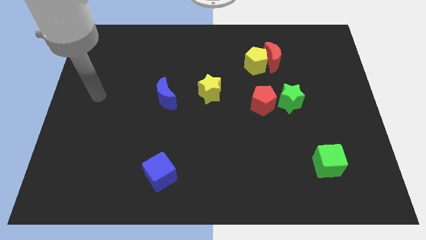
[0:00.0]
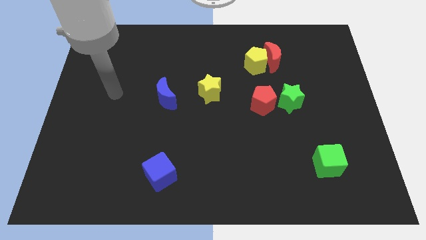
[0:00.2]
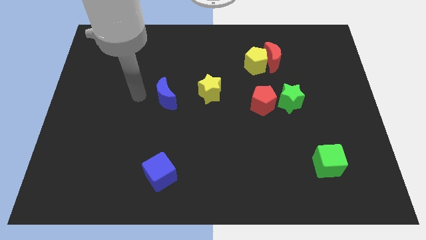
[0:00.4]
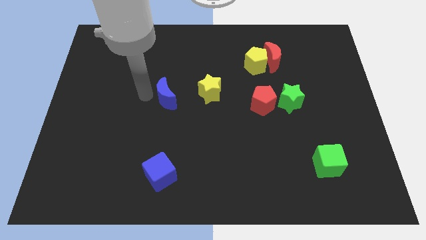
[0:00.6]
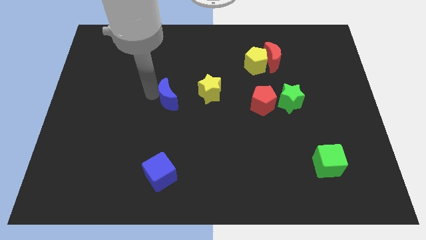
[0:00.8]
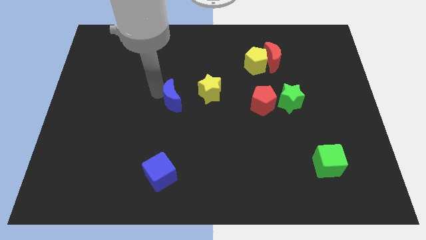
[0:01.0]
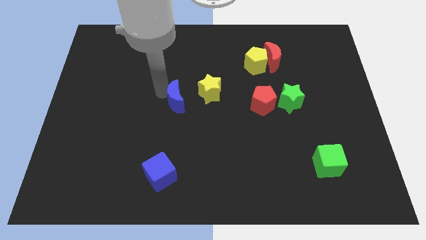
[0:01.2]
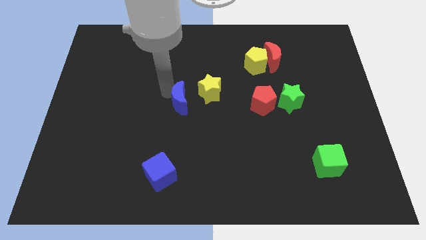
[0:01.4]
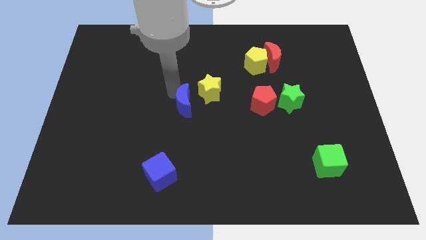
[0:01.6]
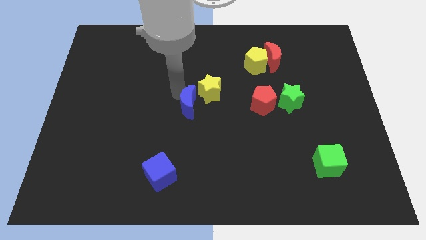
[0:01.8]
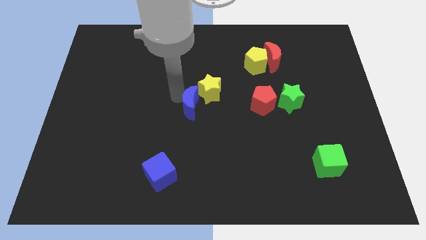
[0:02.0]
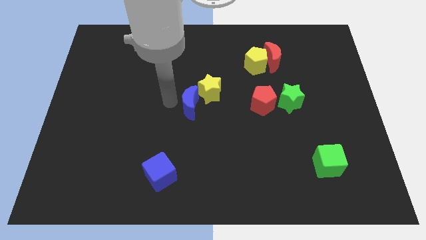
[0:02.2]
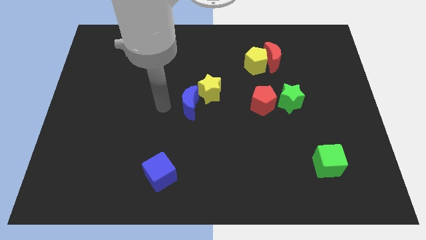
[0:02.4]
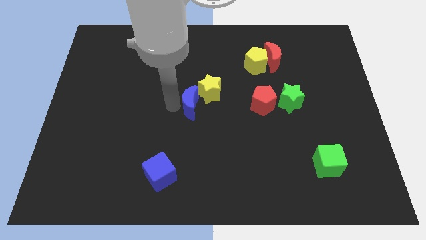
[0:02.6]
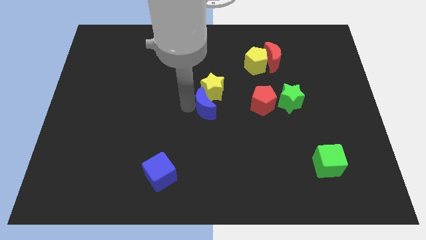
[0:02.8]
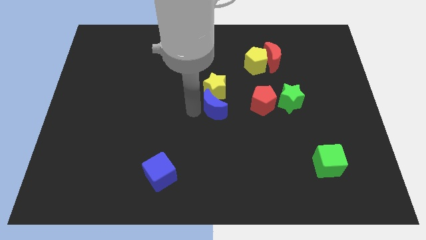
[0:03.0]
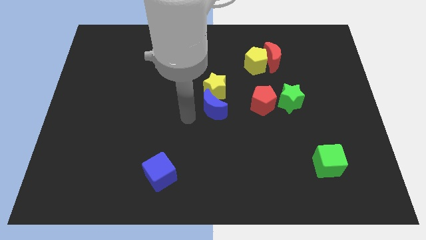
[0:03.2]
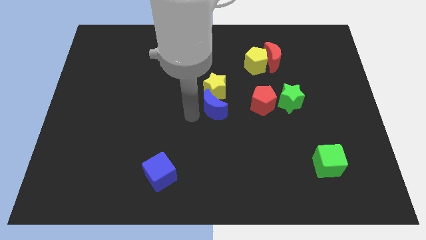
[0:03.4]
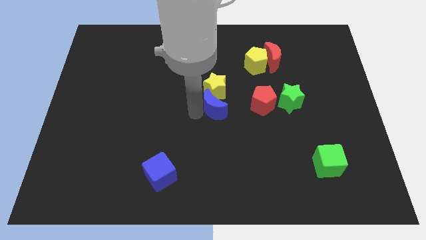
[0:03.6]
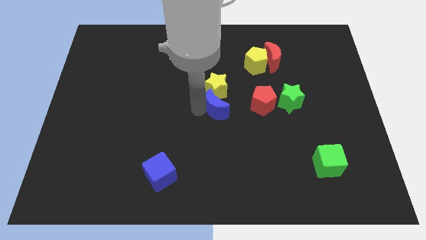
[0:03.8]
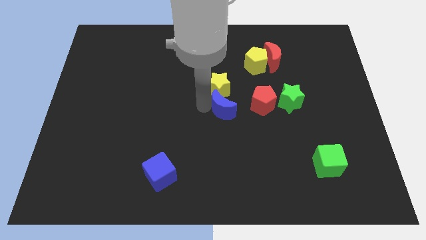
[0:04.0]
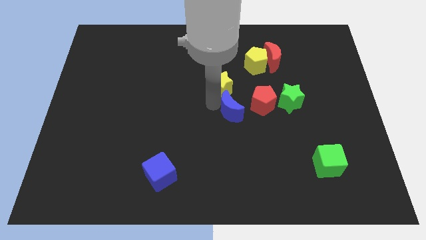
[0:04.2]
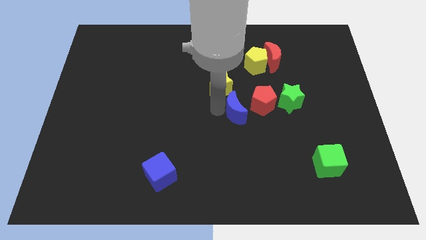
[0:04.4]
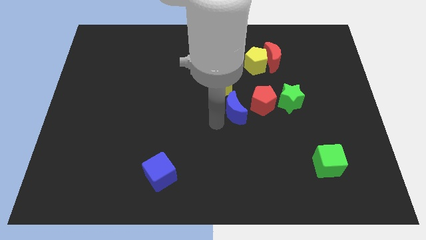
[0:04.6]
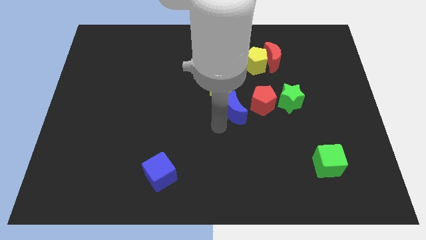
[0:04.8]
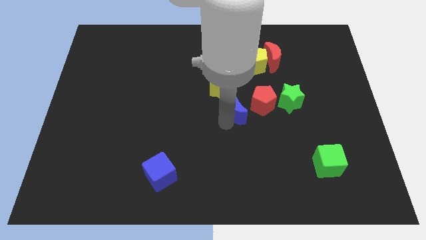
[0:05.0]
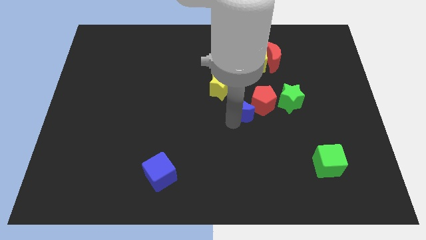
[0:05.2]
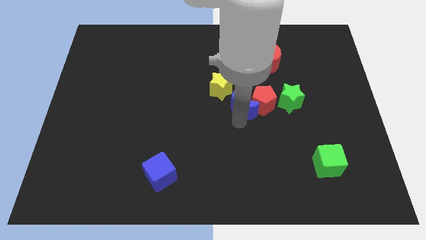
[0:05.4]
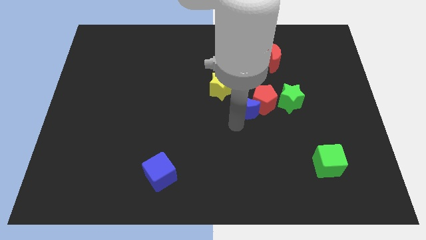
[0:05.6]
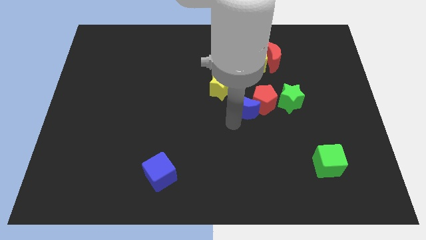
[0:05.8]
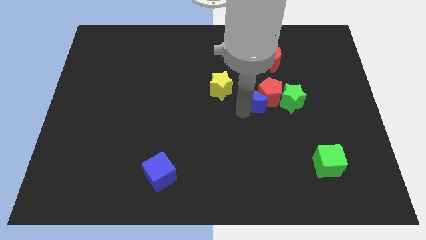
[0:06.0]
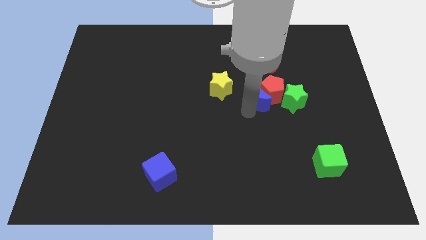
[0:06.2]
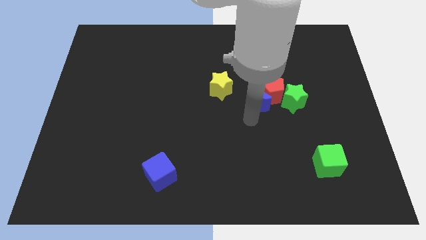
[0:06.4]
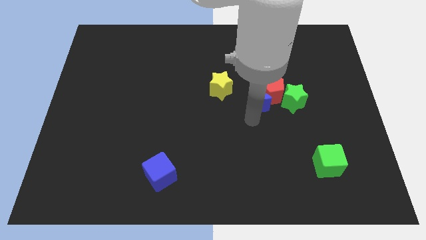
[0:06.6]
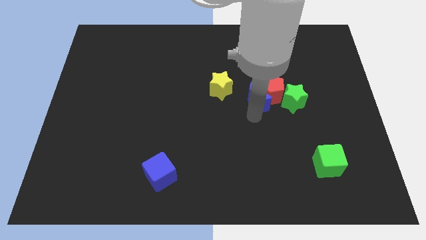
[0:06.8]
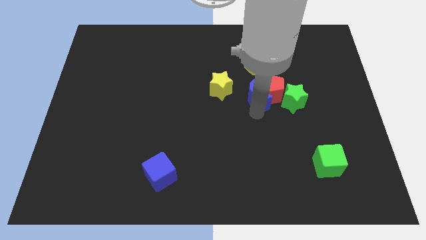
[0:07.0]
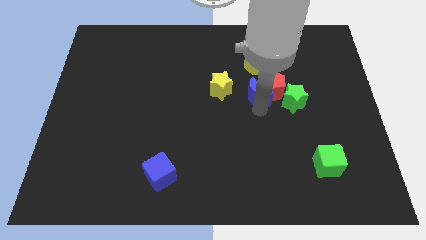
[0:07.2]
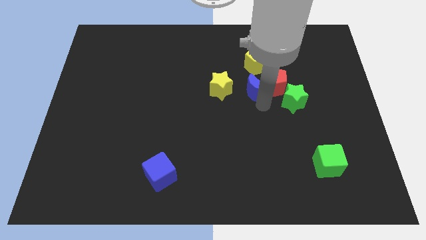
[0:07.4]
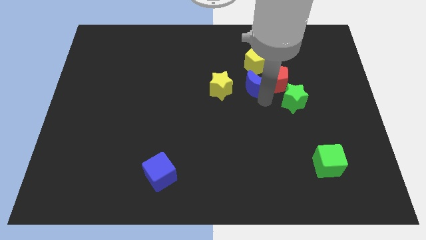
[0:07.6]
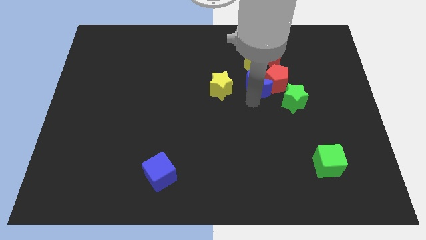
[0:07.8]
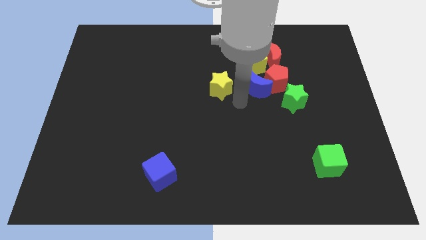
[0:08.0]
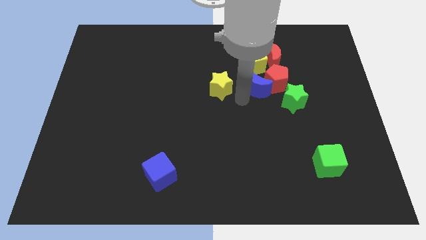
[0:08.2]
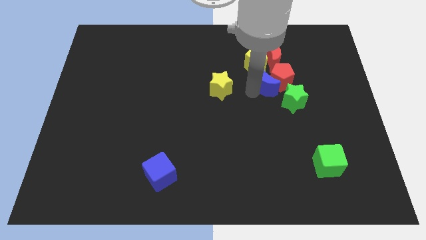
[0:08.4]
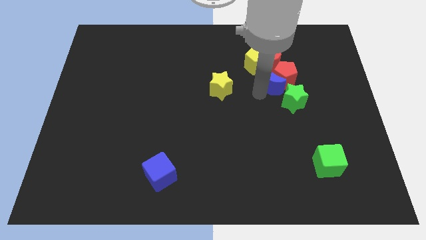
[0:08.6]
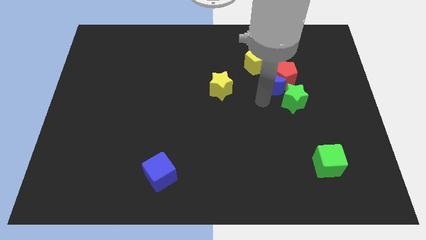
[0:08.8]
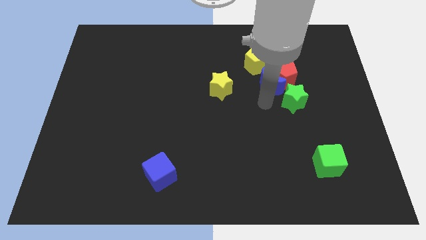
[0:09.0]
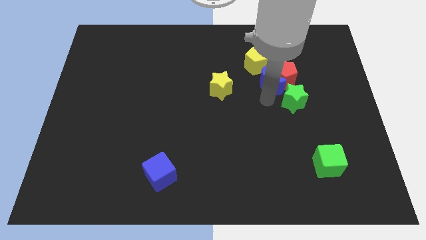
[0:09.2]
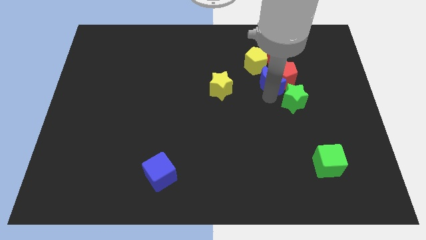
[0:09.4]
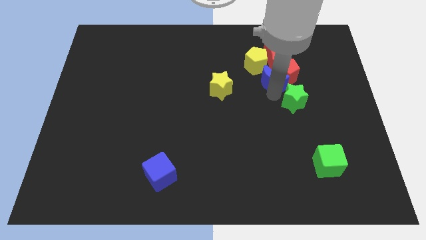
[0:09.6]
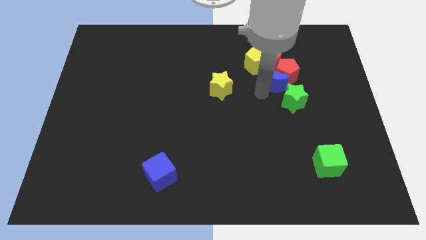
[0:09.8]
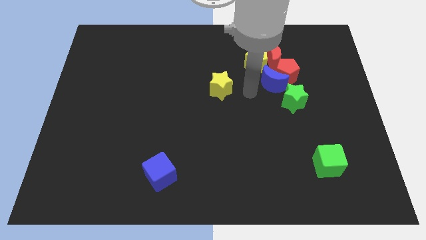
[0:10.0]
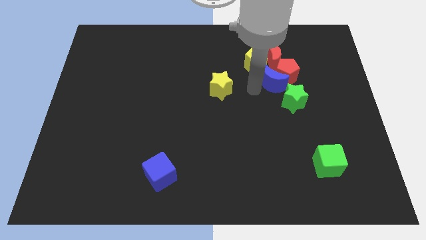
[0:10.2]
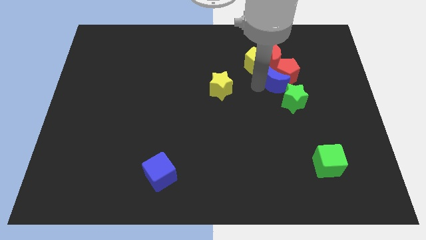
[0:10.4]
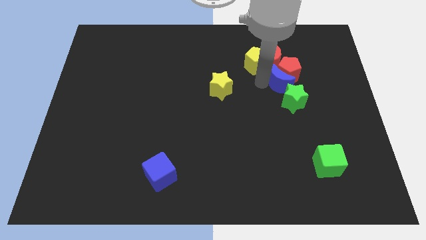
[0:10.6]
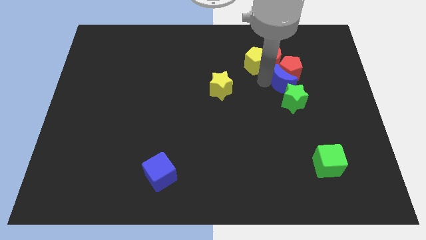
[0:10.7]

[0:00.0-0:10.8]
move the blue moon diagonally down and to the right of the red moon
